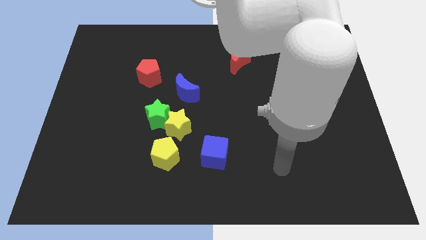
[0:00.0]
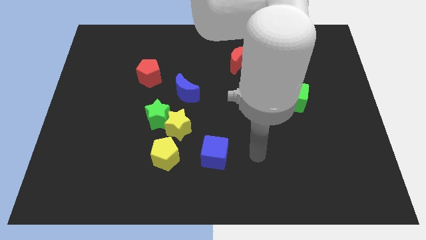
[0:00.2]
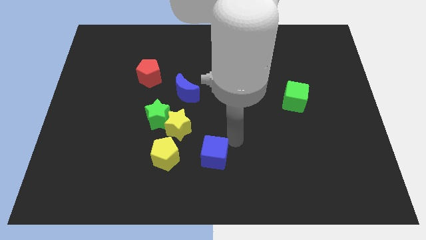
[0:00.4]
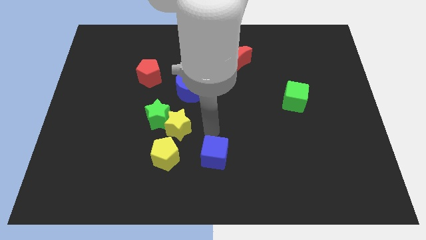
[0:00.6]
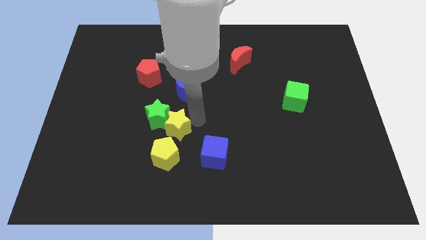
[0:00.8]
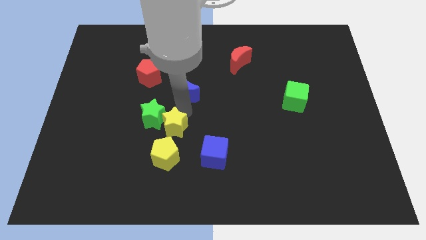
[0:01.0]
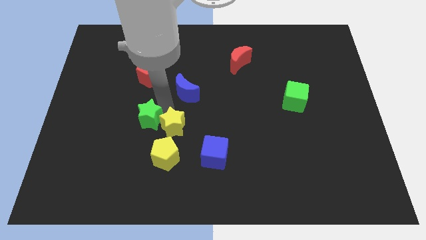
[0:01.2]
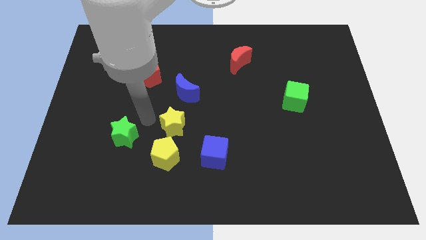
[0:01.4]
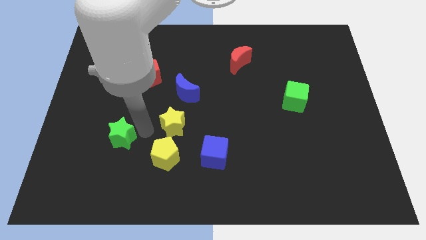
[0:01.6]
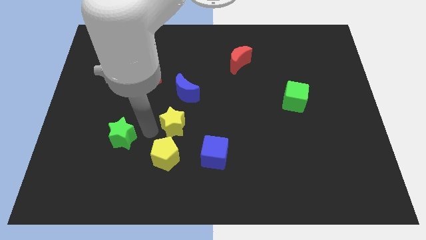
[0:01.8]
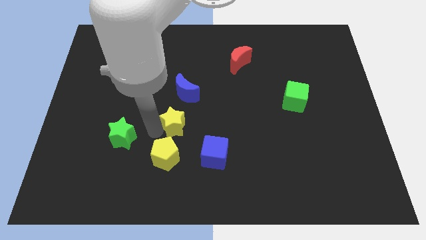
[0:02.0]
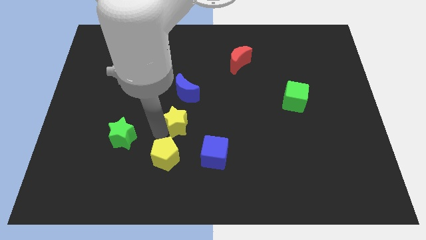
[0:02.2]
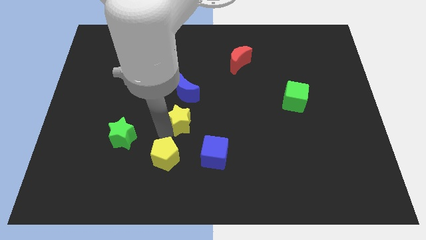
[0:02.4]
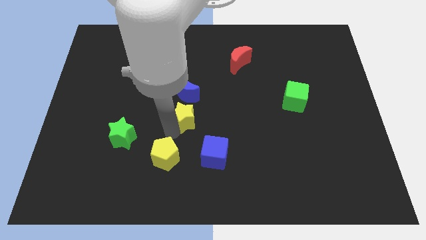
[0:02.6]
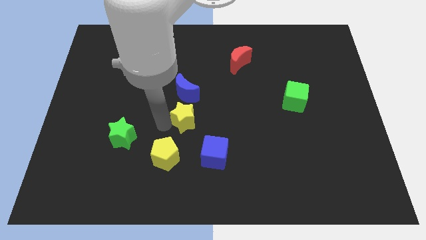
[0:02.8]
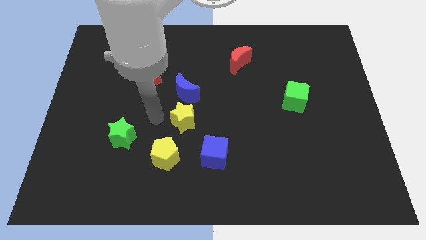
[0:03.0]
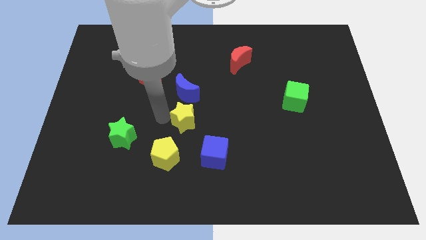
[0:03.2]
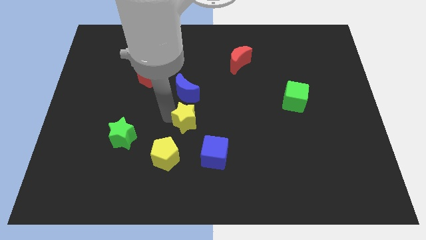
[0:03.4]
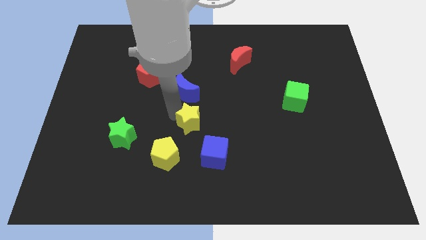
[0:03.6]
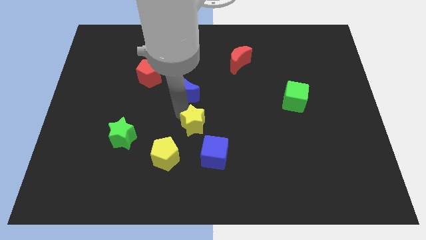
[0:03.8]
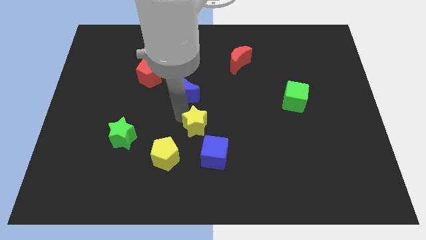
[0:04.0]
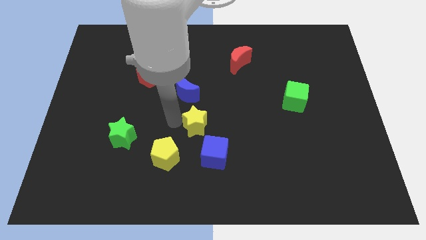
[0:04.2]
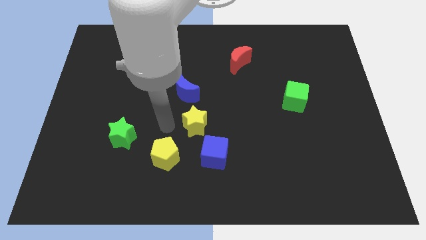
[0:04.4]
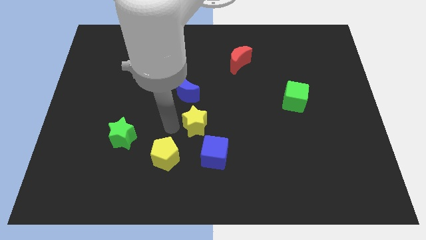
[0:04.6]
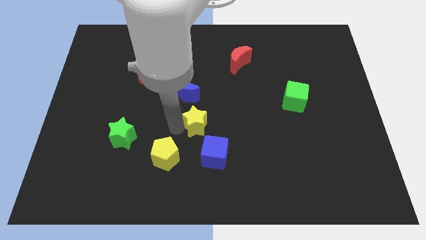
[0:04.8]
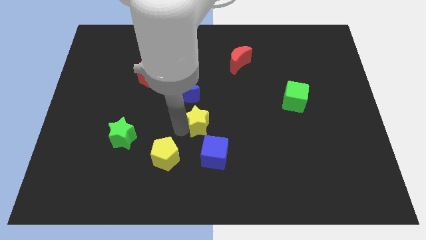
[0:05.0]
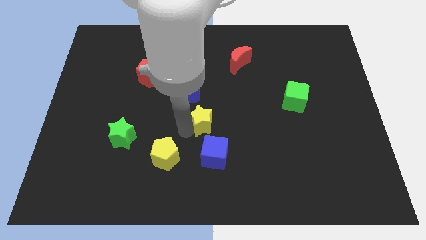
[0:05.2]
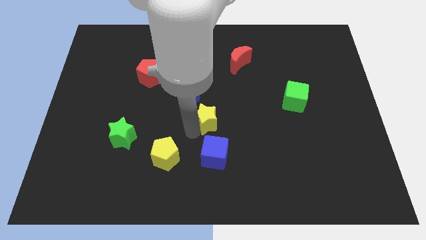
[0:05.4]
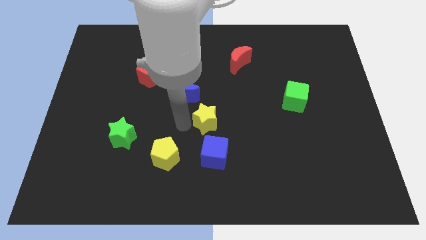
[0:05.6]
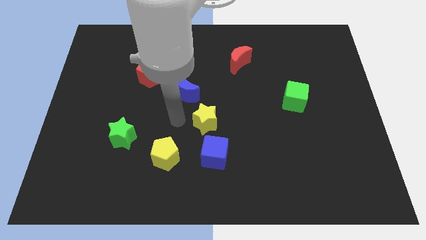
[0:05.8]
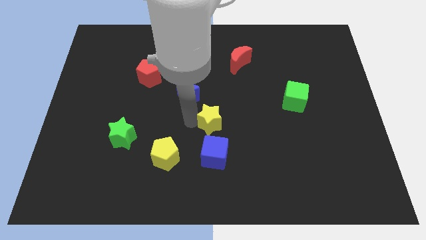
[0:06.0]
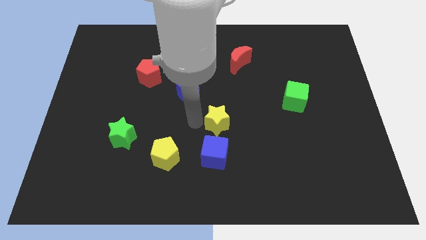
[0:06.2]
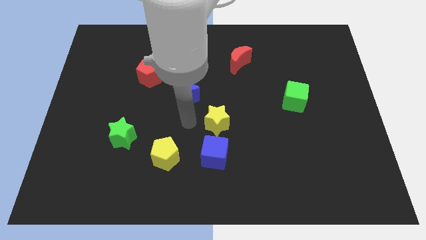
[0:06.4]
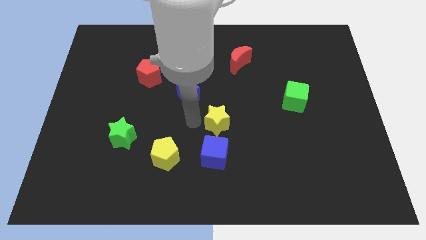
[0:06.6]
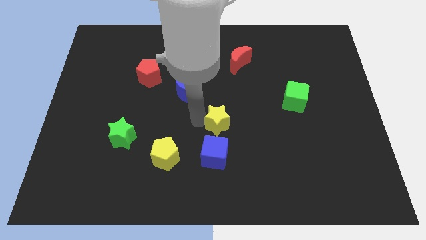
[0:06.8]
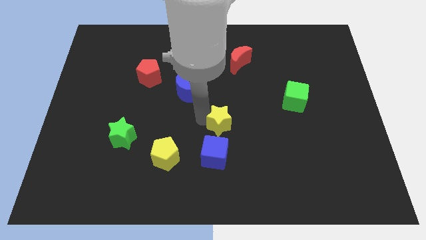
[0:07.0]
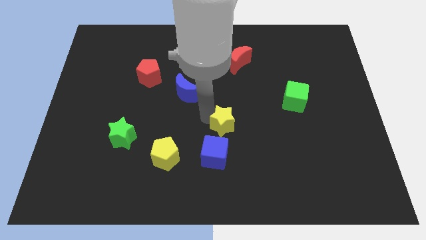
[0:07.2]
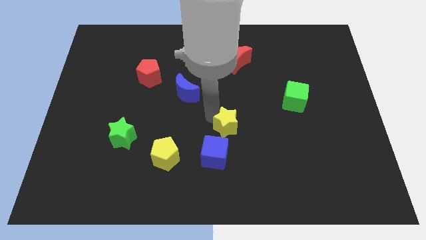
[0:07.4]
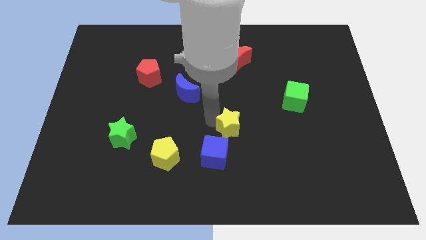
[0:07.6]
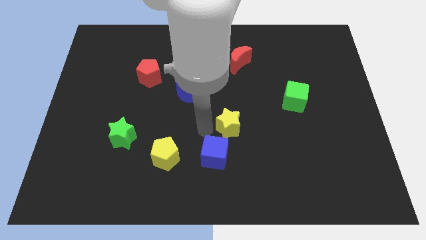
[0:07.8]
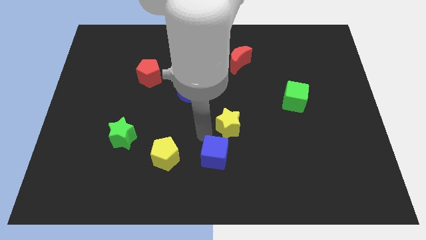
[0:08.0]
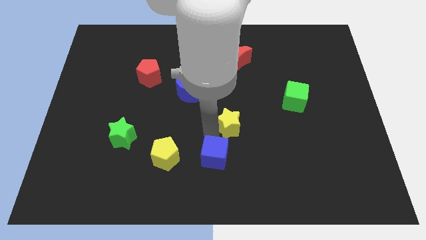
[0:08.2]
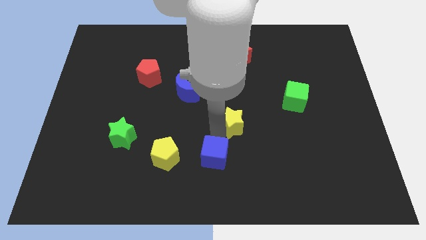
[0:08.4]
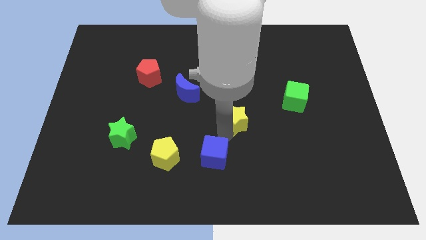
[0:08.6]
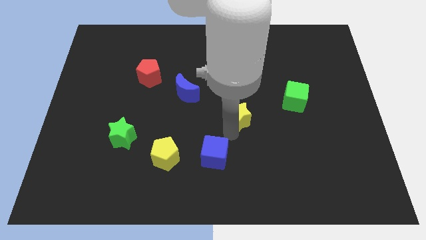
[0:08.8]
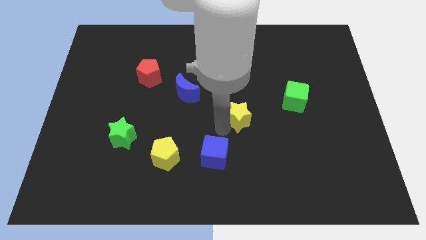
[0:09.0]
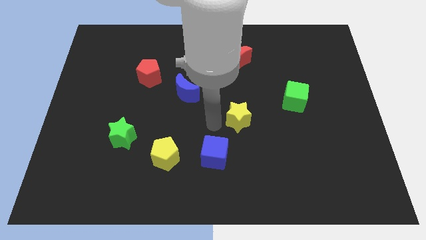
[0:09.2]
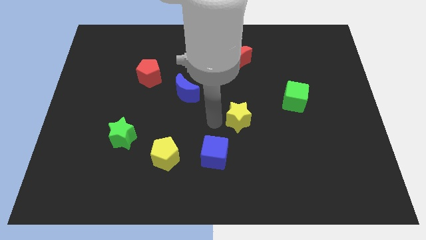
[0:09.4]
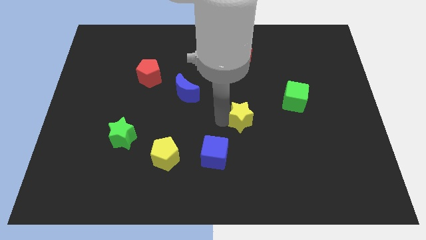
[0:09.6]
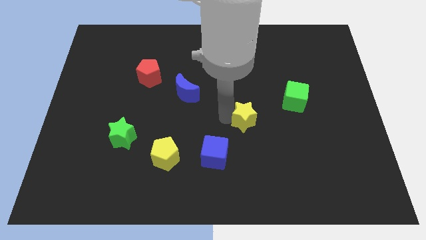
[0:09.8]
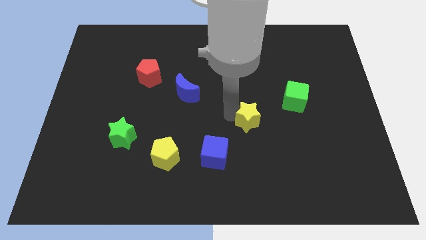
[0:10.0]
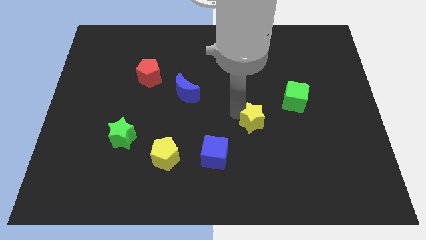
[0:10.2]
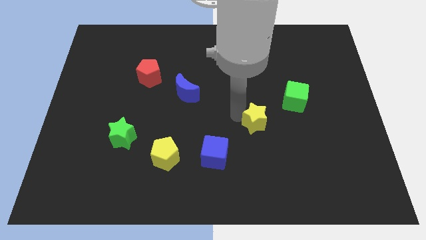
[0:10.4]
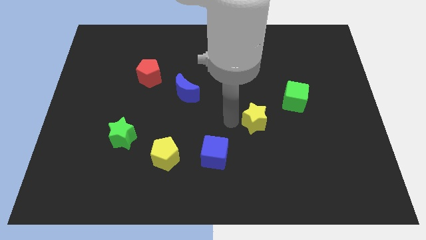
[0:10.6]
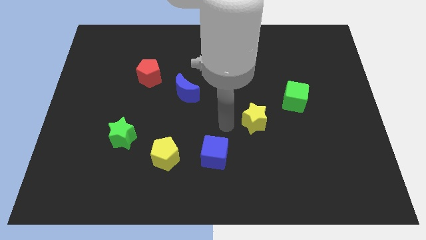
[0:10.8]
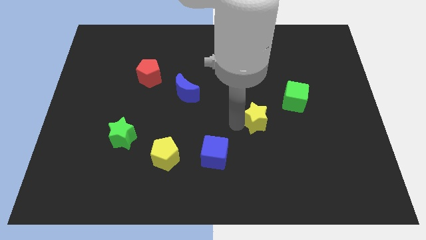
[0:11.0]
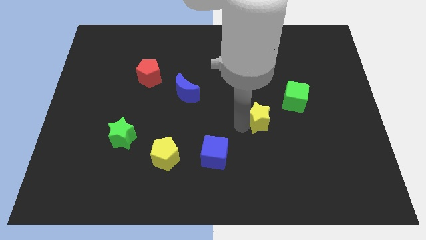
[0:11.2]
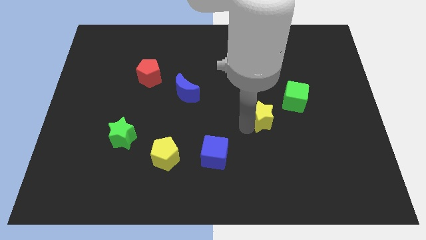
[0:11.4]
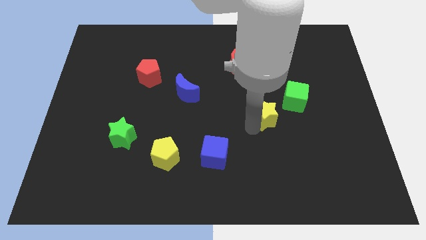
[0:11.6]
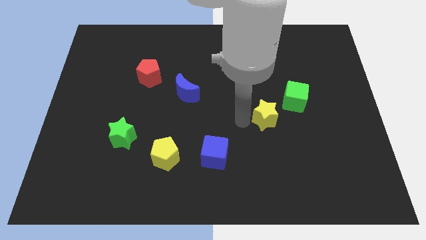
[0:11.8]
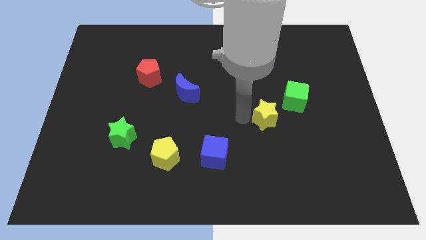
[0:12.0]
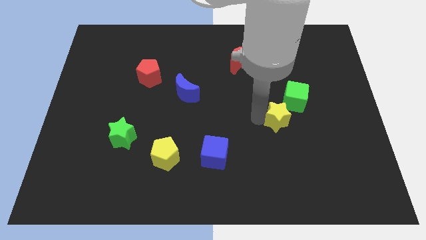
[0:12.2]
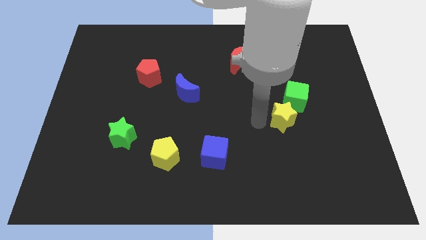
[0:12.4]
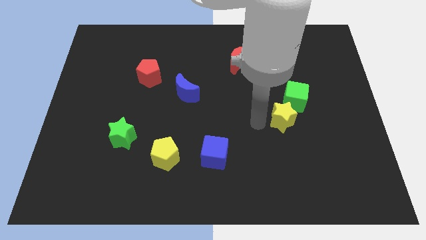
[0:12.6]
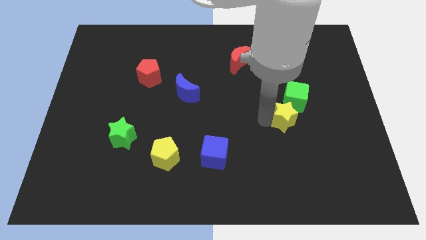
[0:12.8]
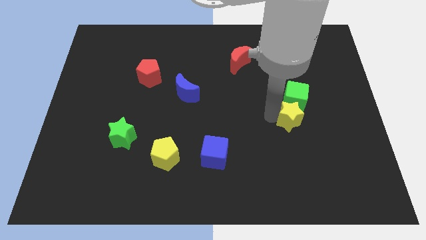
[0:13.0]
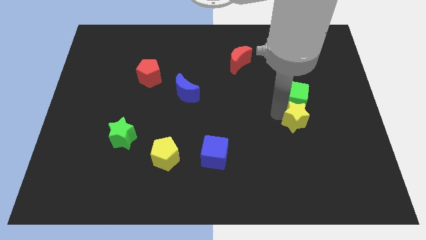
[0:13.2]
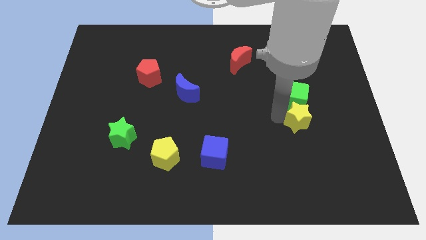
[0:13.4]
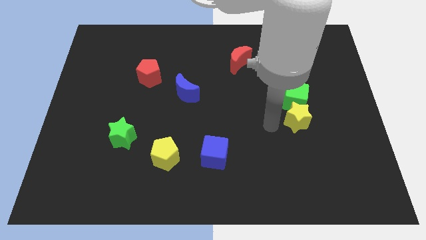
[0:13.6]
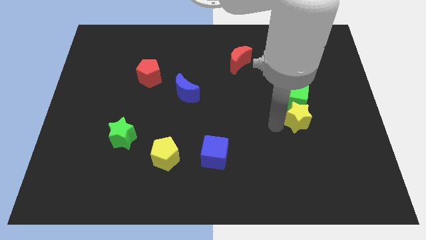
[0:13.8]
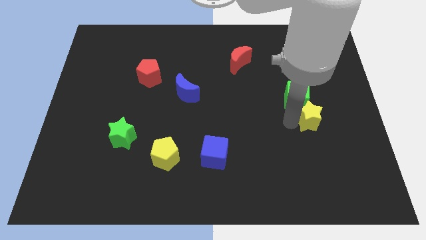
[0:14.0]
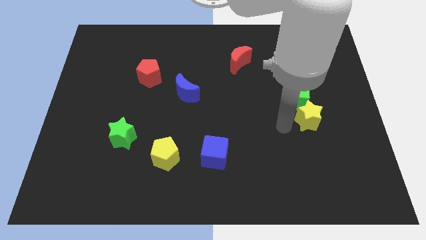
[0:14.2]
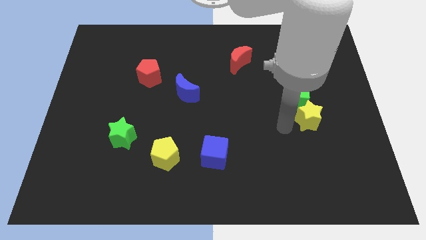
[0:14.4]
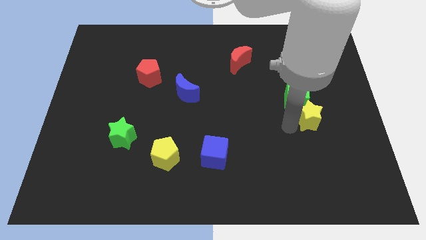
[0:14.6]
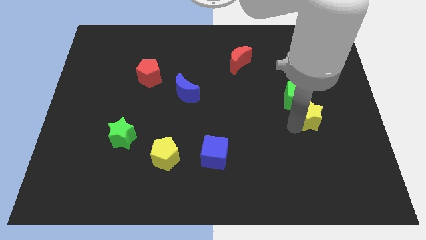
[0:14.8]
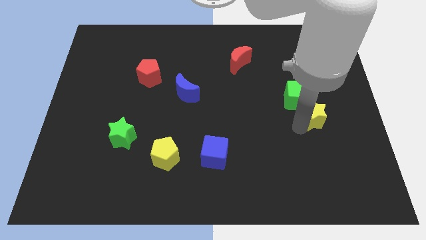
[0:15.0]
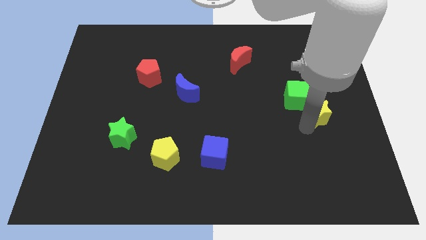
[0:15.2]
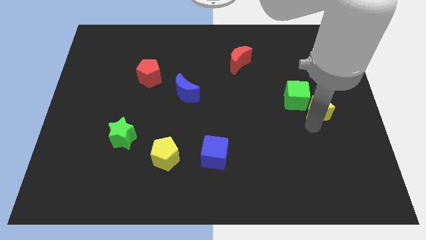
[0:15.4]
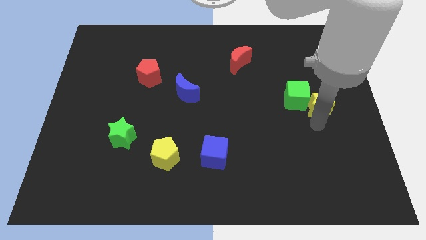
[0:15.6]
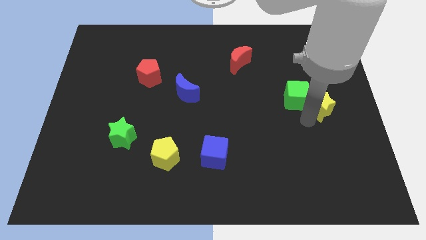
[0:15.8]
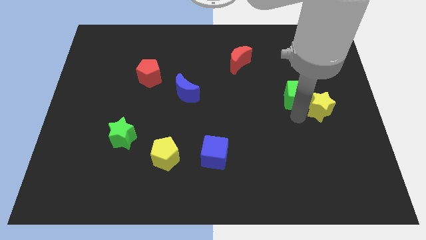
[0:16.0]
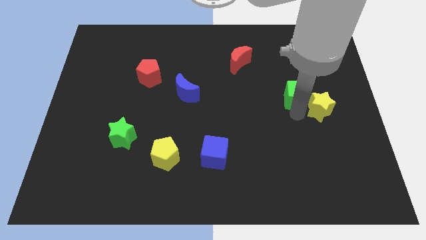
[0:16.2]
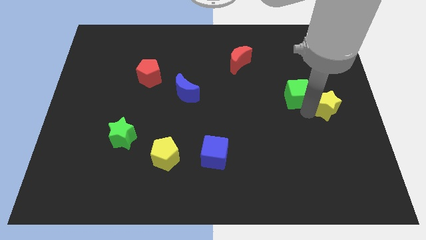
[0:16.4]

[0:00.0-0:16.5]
slide the yellow star to the right side of the board
